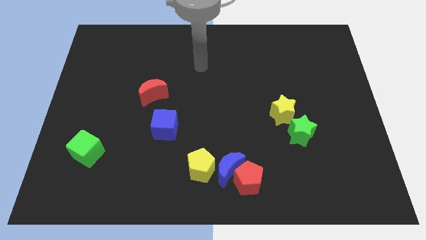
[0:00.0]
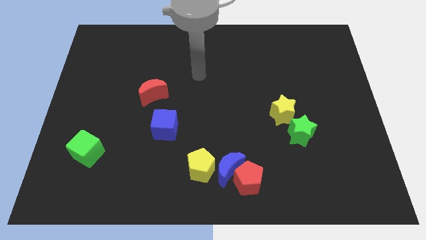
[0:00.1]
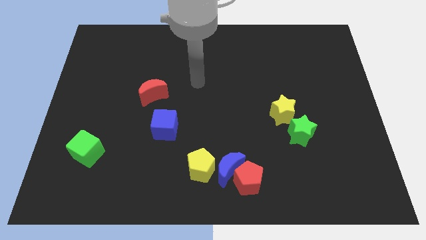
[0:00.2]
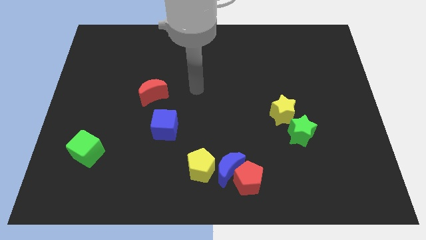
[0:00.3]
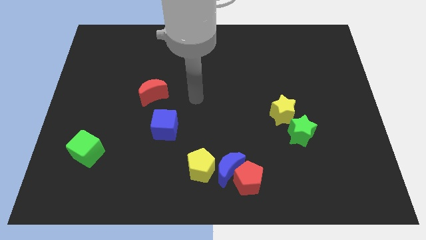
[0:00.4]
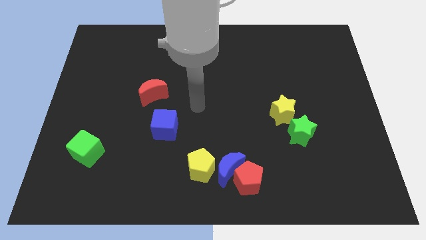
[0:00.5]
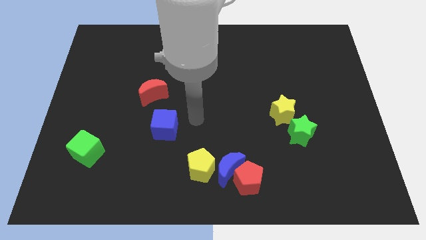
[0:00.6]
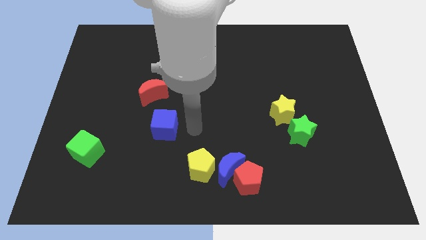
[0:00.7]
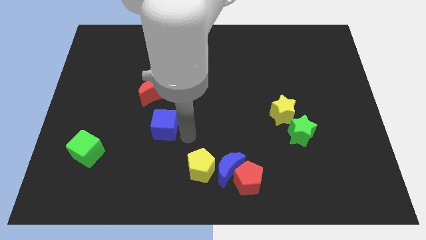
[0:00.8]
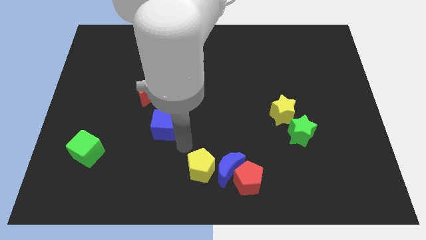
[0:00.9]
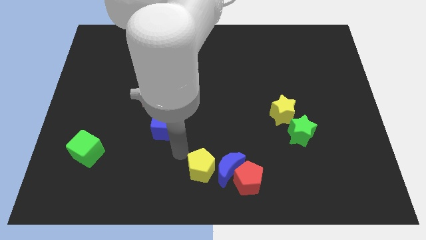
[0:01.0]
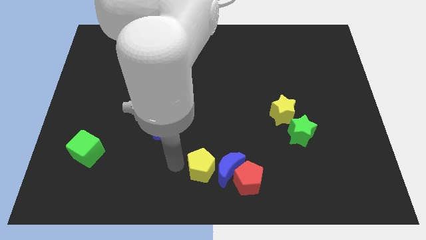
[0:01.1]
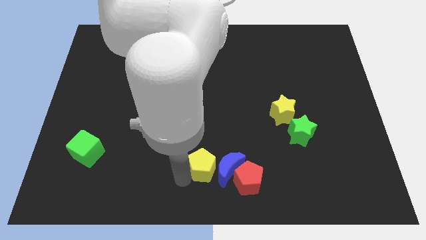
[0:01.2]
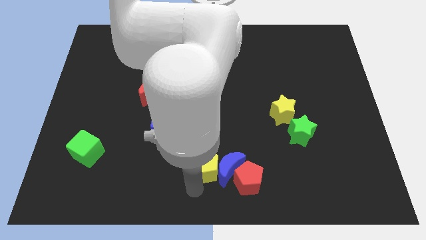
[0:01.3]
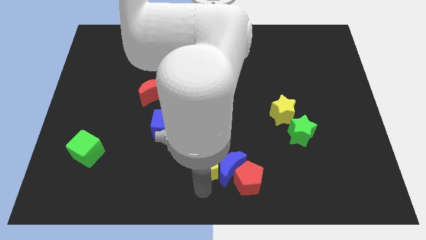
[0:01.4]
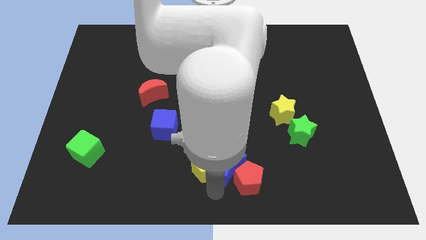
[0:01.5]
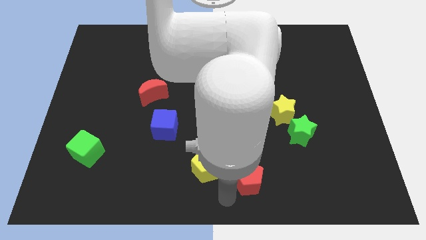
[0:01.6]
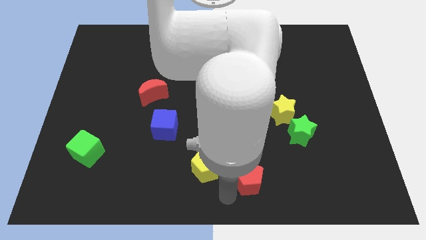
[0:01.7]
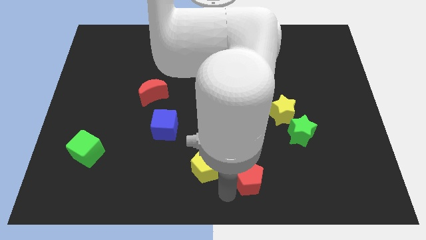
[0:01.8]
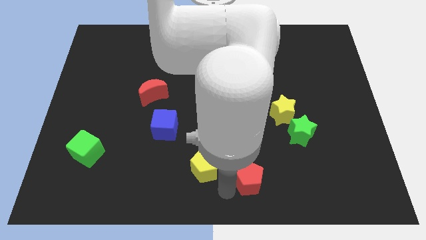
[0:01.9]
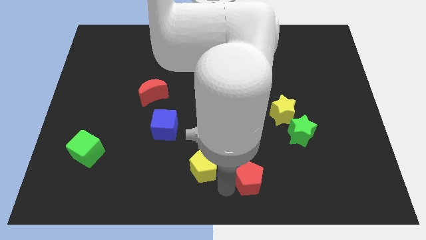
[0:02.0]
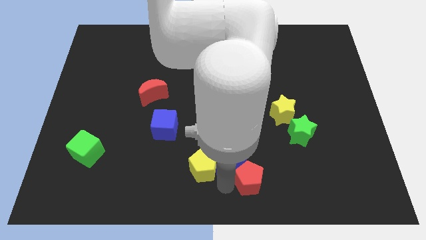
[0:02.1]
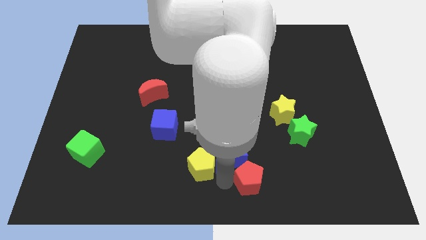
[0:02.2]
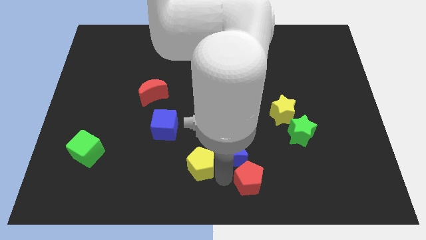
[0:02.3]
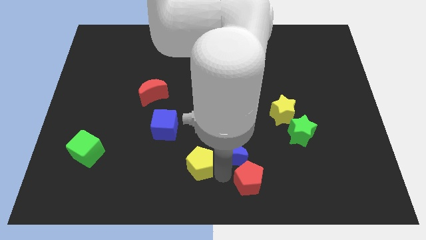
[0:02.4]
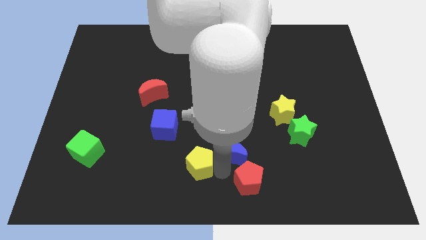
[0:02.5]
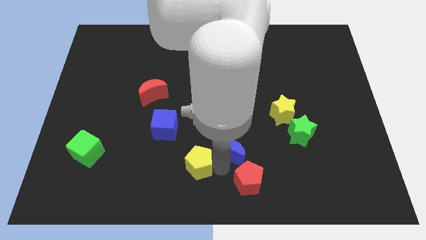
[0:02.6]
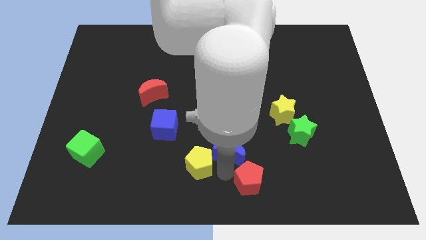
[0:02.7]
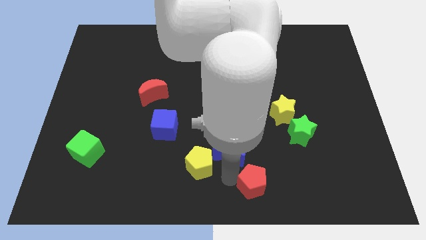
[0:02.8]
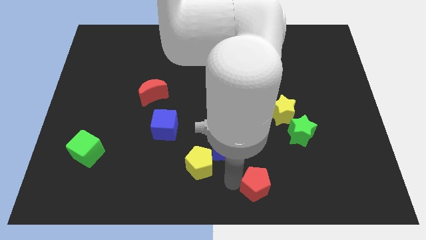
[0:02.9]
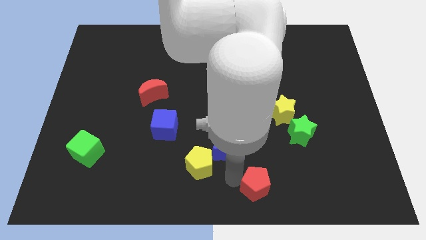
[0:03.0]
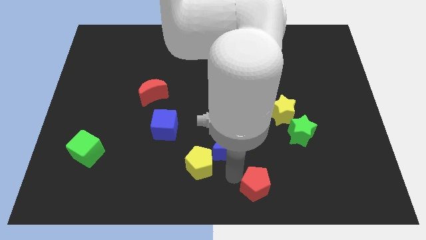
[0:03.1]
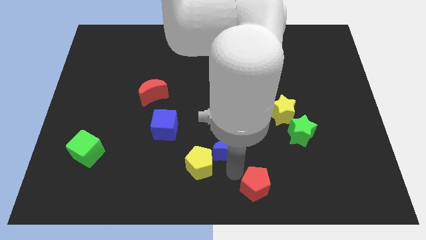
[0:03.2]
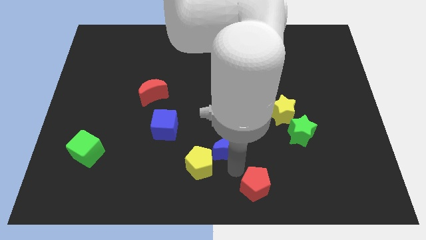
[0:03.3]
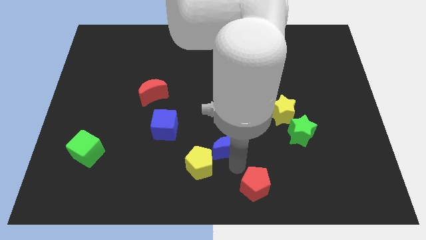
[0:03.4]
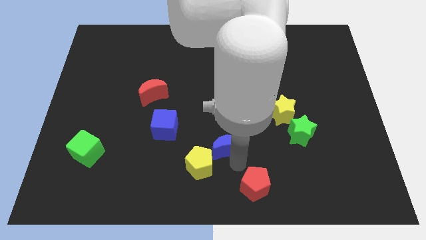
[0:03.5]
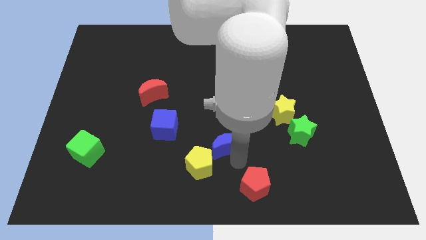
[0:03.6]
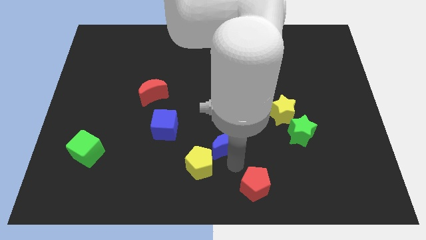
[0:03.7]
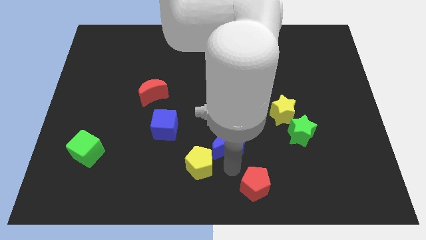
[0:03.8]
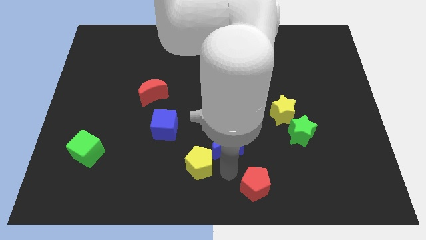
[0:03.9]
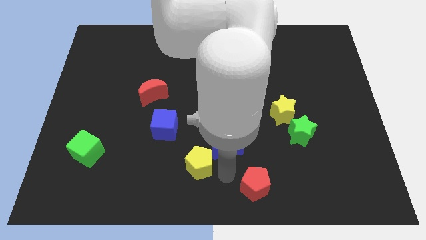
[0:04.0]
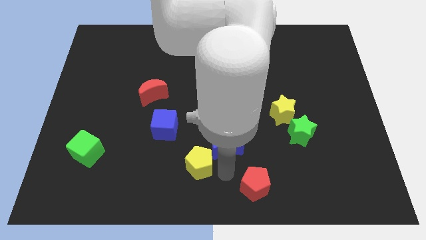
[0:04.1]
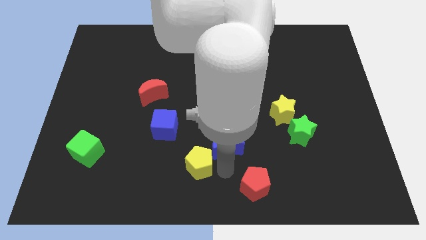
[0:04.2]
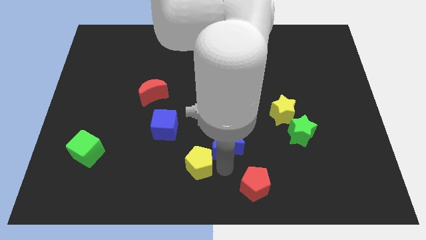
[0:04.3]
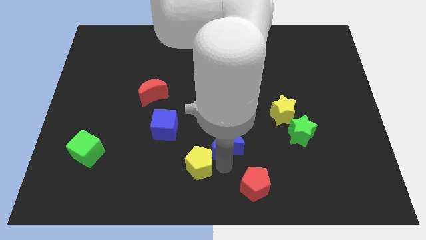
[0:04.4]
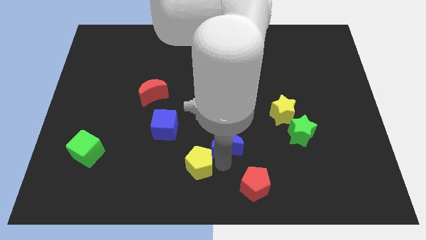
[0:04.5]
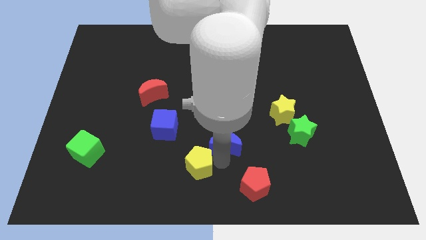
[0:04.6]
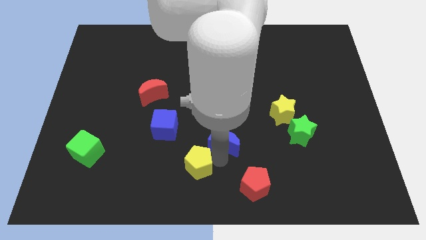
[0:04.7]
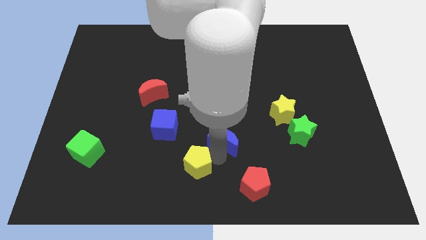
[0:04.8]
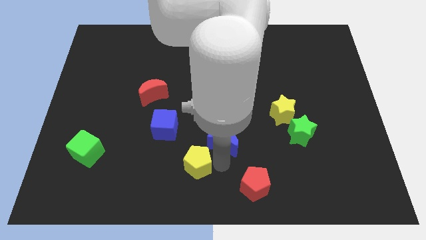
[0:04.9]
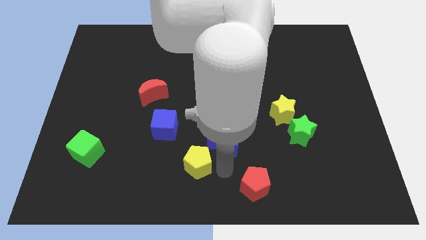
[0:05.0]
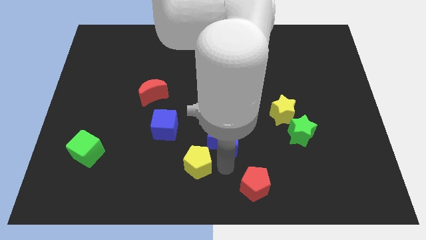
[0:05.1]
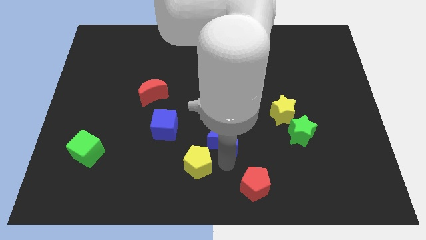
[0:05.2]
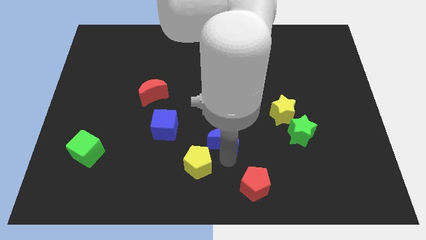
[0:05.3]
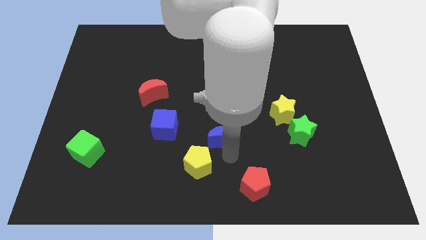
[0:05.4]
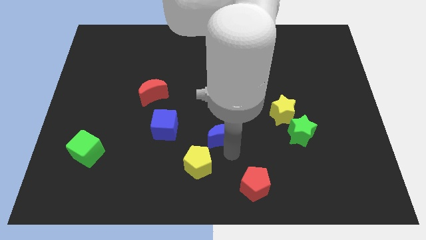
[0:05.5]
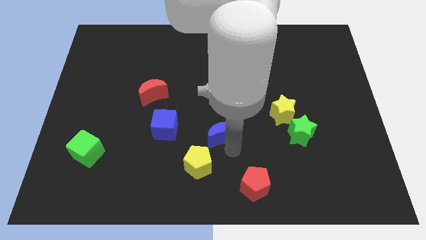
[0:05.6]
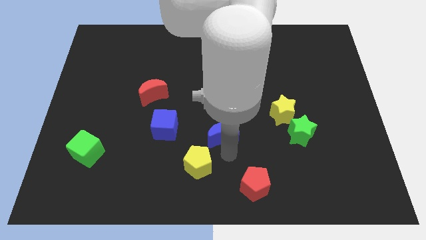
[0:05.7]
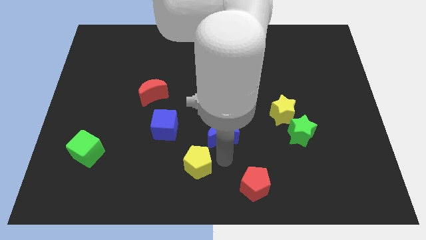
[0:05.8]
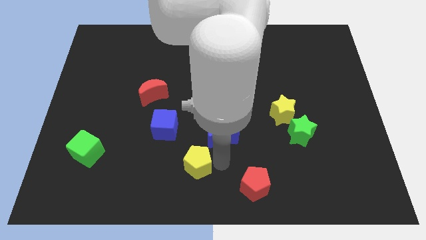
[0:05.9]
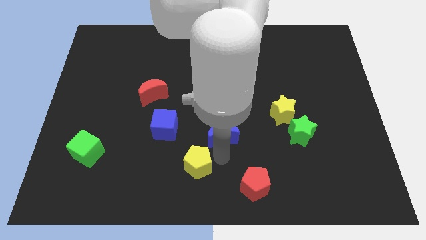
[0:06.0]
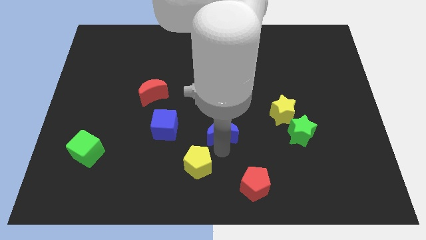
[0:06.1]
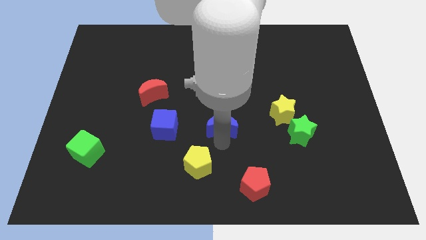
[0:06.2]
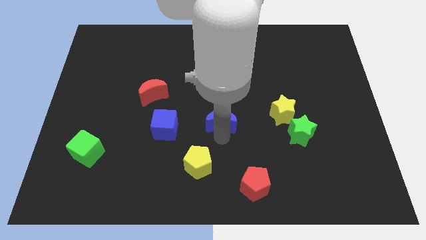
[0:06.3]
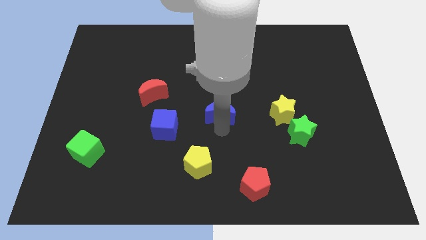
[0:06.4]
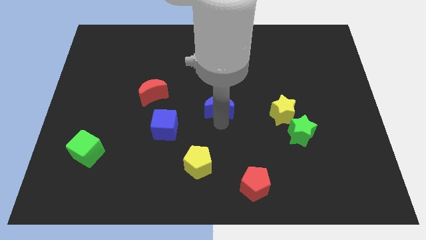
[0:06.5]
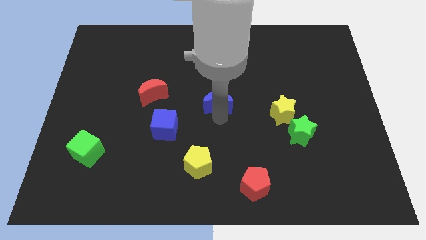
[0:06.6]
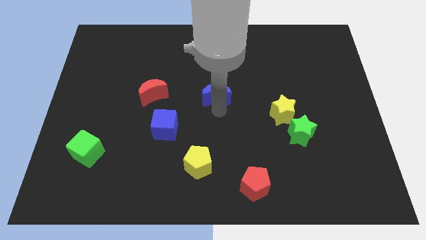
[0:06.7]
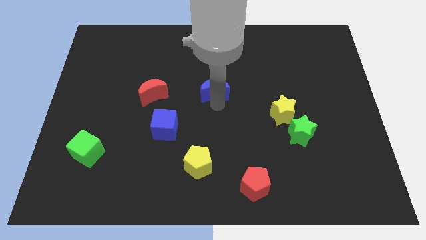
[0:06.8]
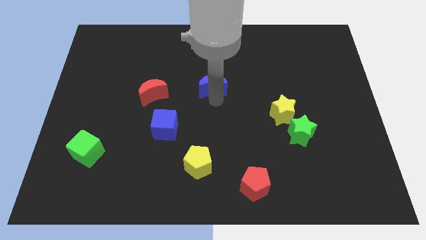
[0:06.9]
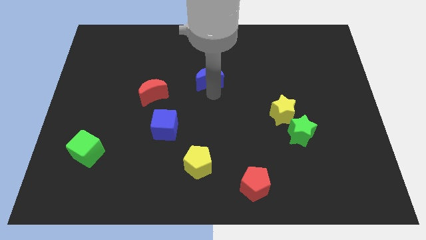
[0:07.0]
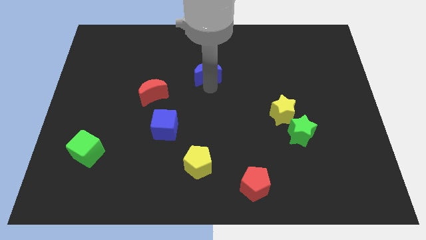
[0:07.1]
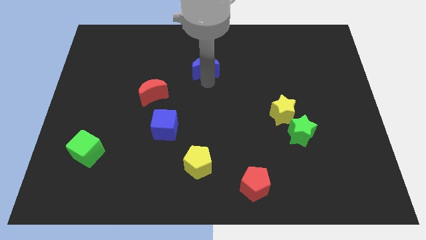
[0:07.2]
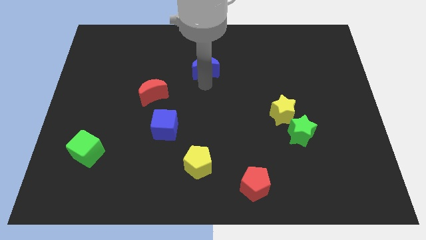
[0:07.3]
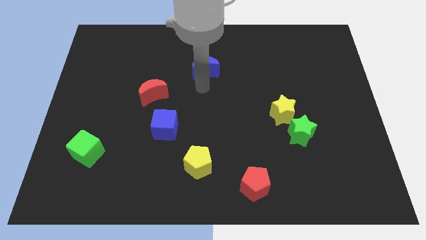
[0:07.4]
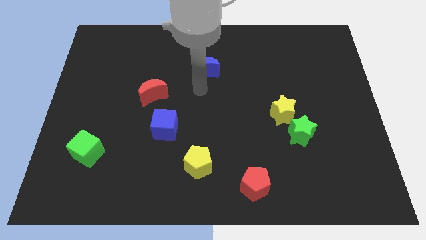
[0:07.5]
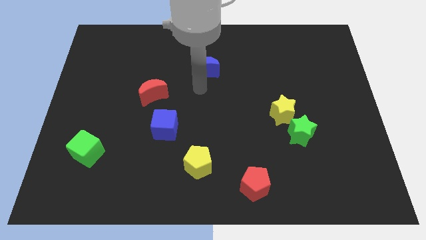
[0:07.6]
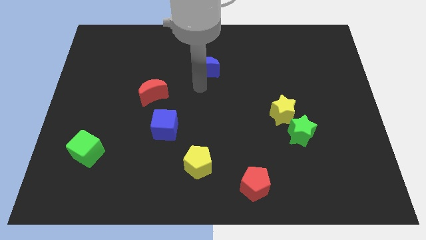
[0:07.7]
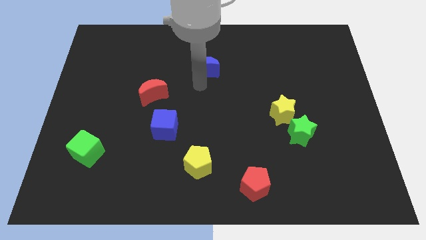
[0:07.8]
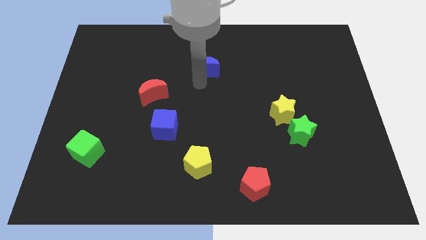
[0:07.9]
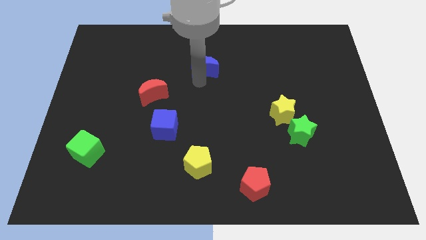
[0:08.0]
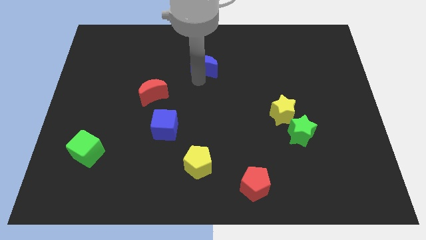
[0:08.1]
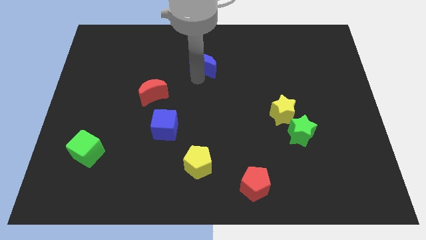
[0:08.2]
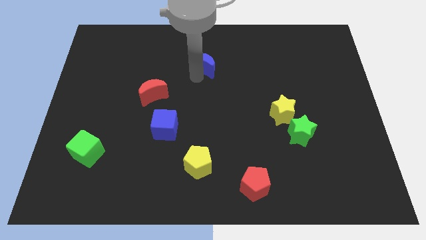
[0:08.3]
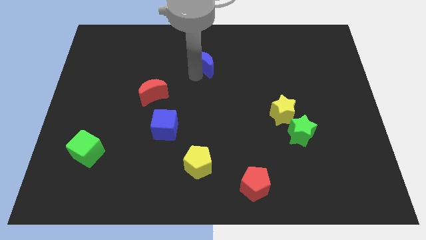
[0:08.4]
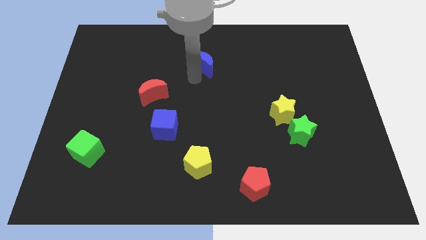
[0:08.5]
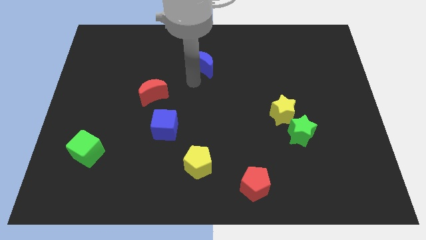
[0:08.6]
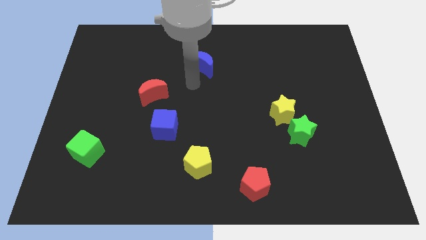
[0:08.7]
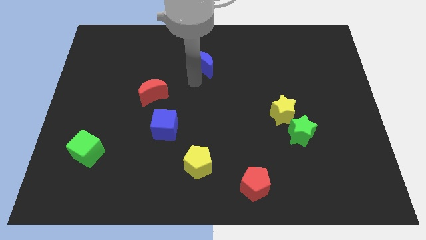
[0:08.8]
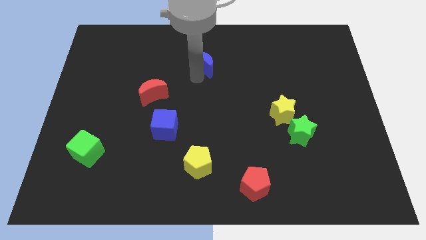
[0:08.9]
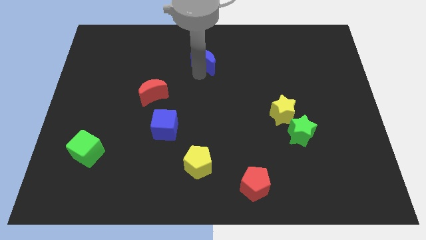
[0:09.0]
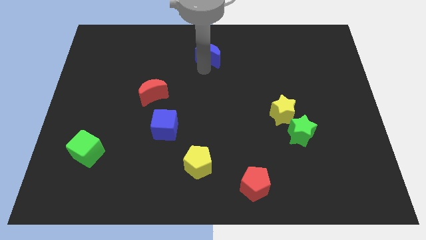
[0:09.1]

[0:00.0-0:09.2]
slide the blue moon to the top
